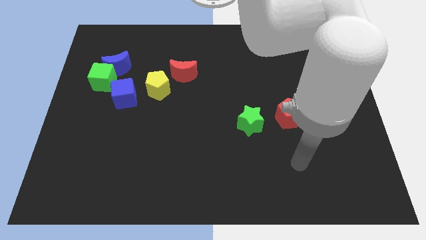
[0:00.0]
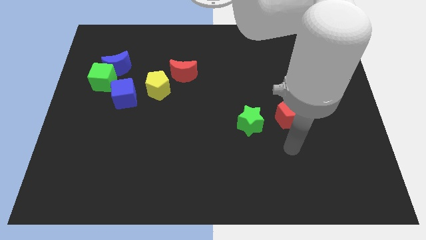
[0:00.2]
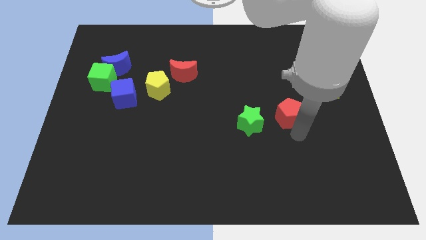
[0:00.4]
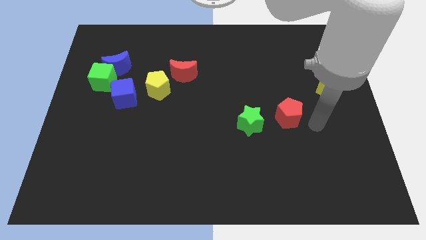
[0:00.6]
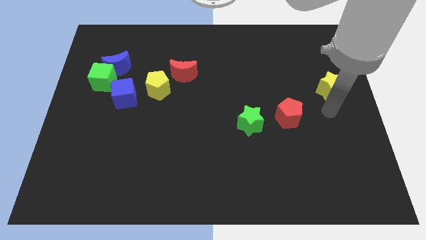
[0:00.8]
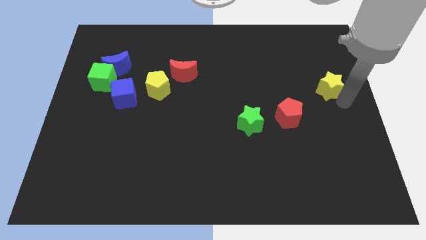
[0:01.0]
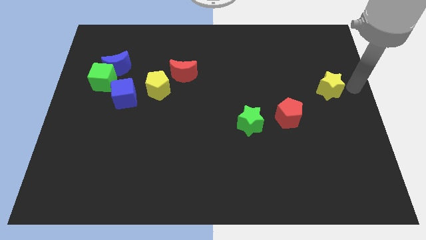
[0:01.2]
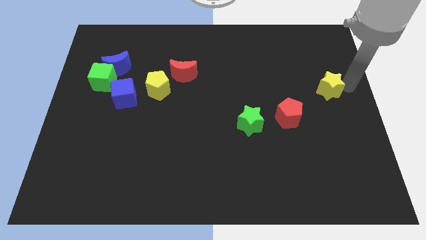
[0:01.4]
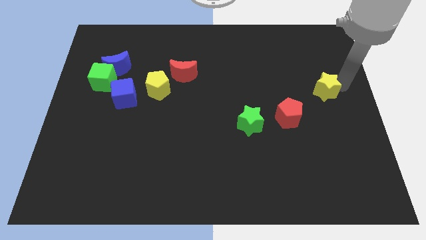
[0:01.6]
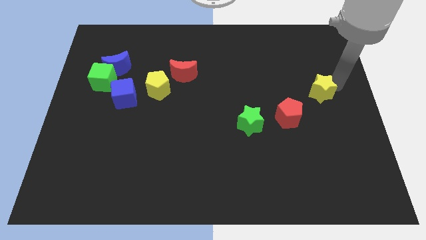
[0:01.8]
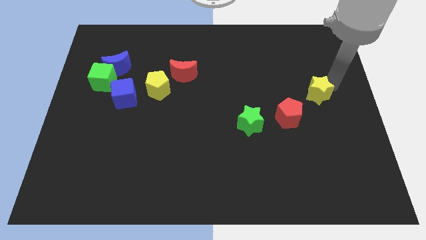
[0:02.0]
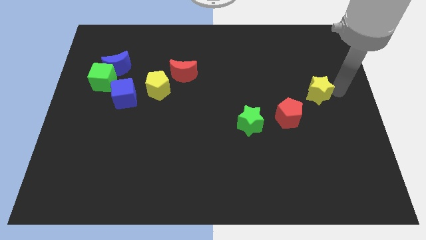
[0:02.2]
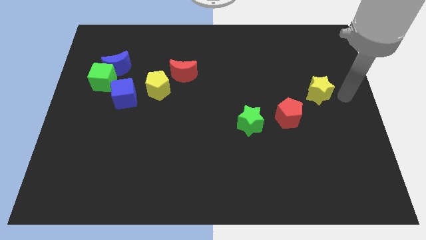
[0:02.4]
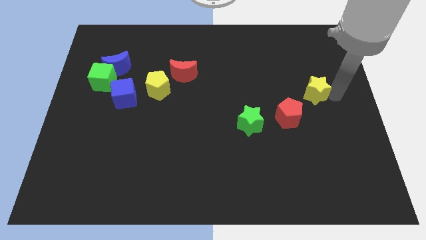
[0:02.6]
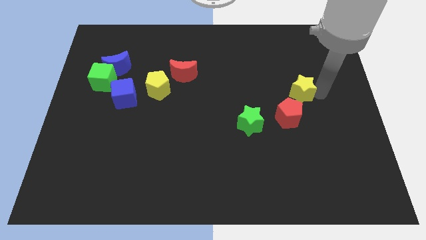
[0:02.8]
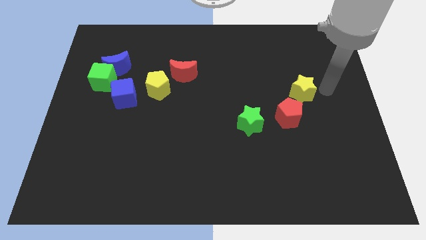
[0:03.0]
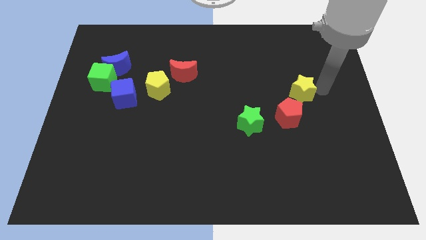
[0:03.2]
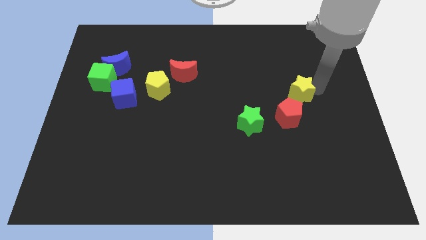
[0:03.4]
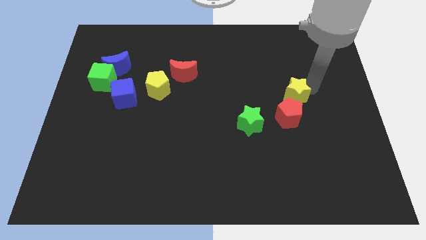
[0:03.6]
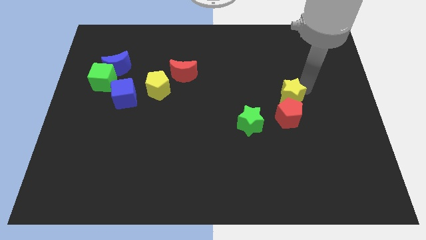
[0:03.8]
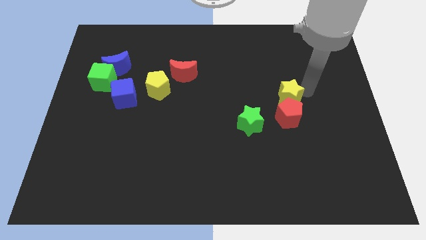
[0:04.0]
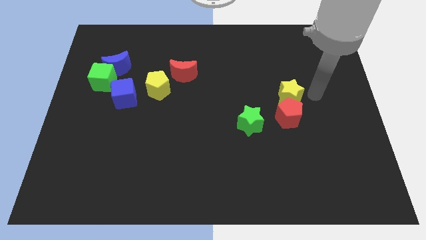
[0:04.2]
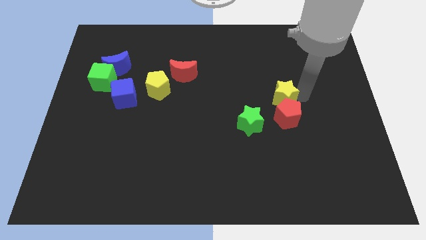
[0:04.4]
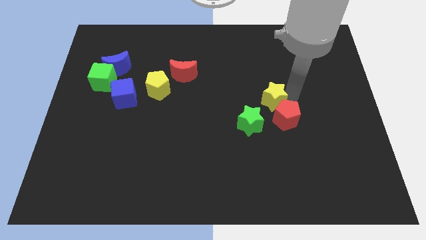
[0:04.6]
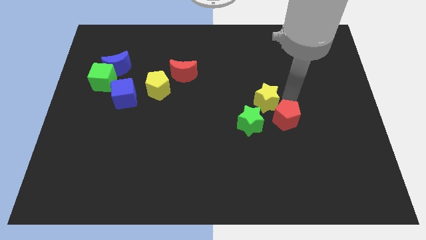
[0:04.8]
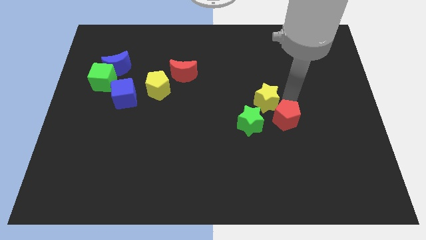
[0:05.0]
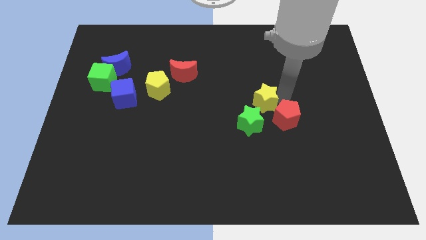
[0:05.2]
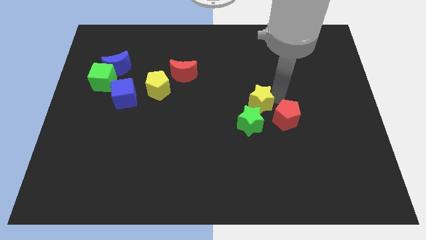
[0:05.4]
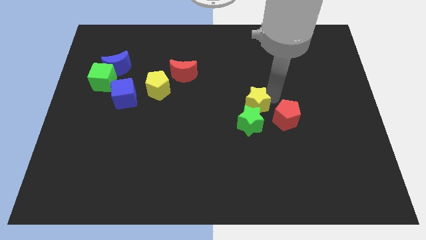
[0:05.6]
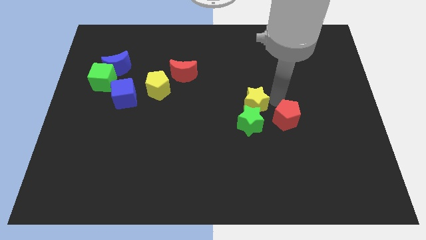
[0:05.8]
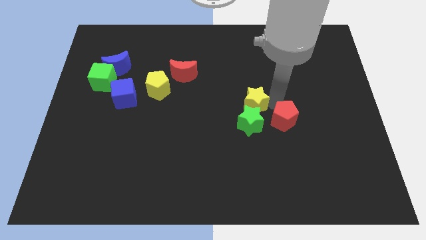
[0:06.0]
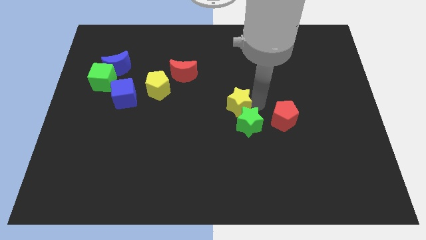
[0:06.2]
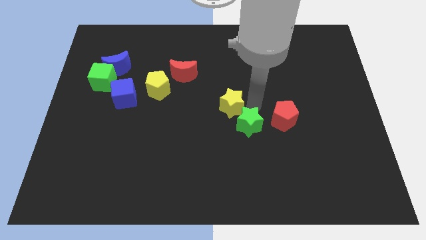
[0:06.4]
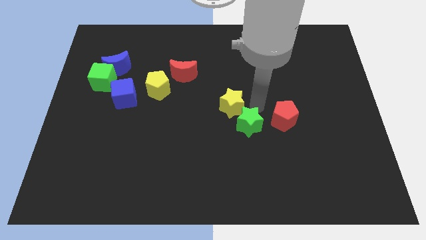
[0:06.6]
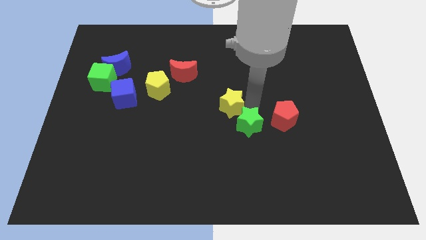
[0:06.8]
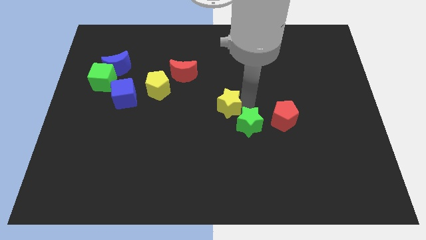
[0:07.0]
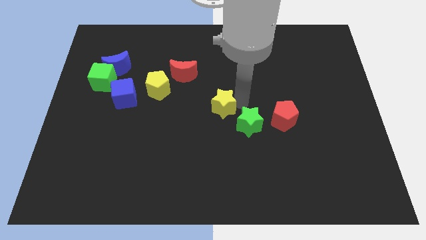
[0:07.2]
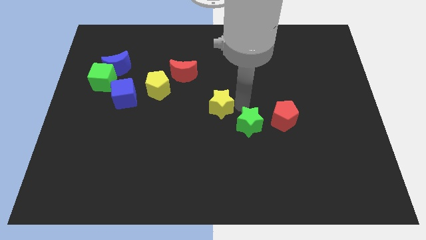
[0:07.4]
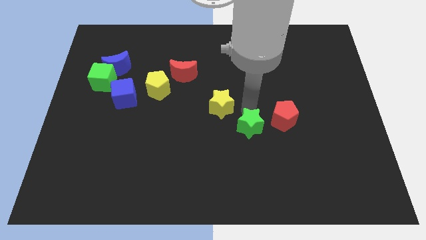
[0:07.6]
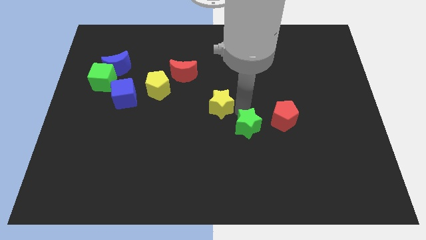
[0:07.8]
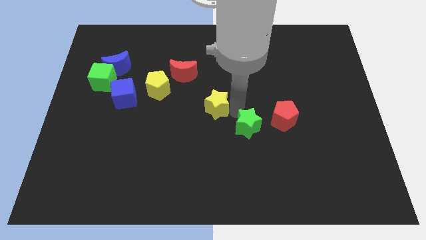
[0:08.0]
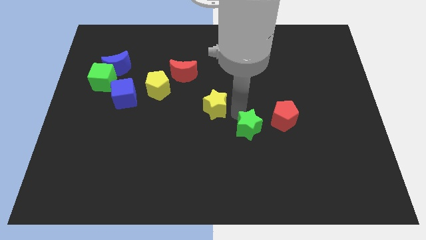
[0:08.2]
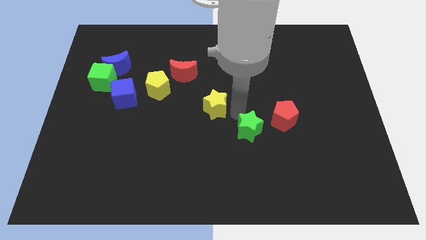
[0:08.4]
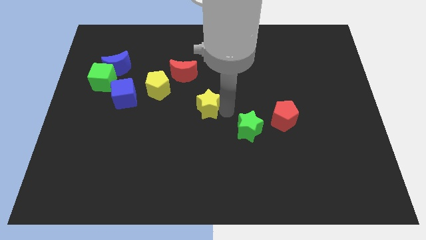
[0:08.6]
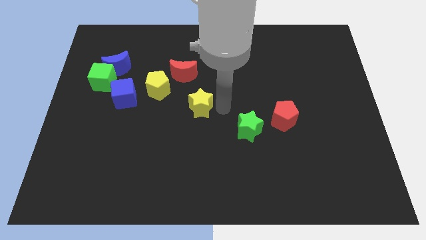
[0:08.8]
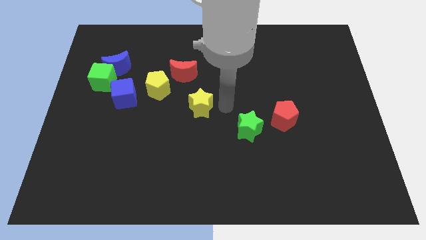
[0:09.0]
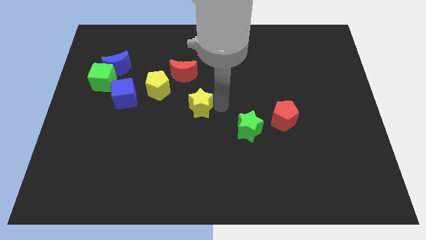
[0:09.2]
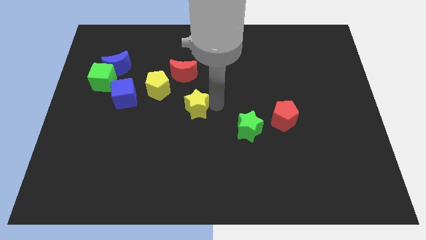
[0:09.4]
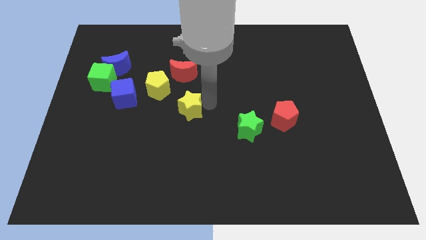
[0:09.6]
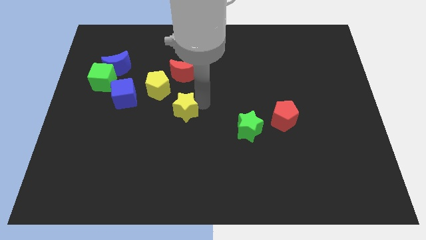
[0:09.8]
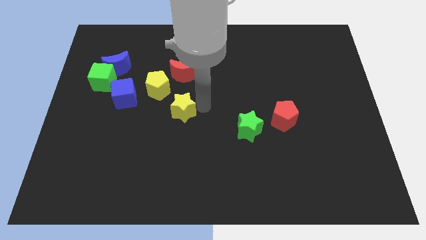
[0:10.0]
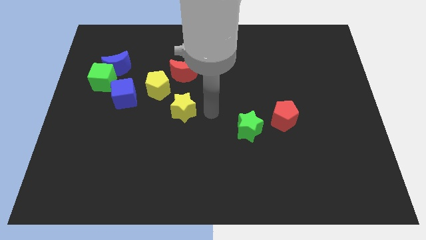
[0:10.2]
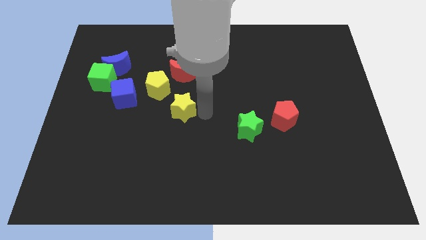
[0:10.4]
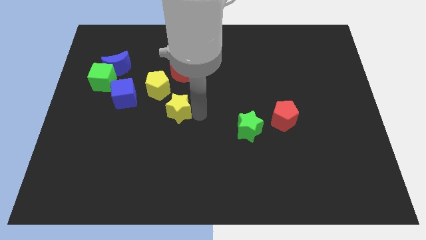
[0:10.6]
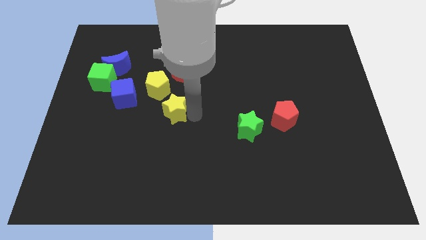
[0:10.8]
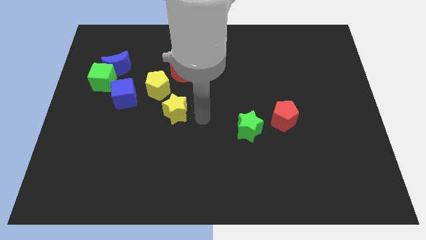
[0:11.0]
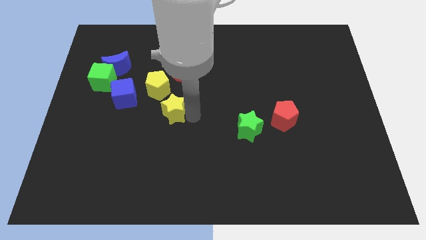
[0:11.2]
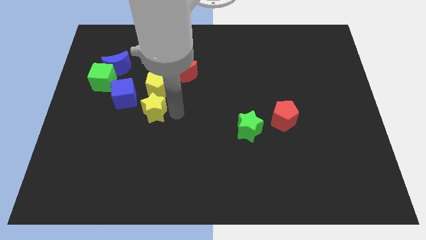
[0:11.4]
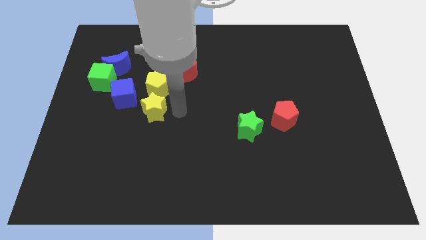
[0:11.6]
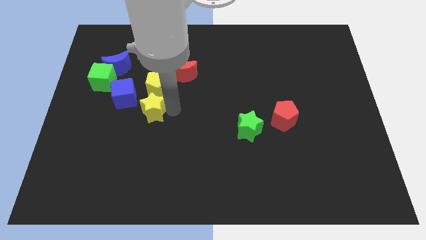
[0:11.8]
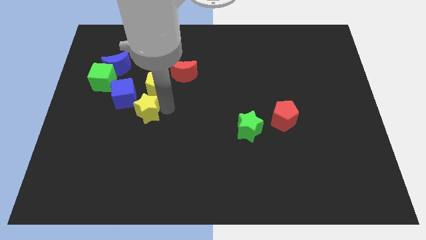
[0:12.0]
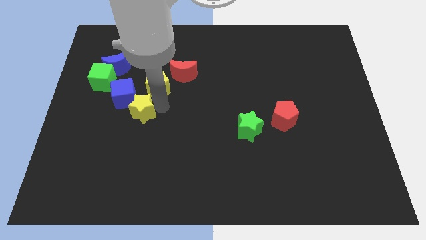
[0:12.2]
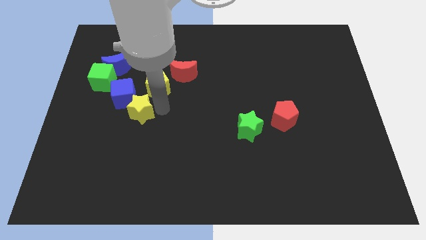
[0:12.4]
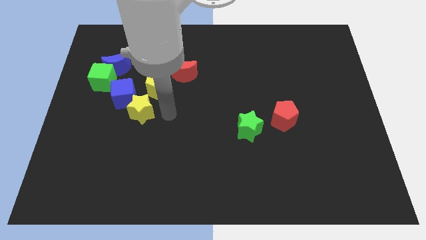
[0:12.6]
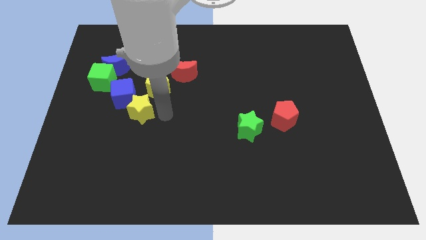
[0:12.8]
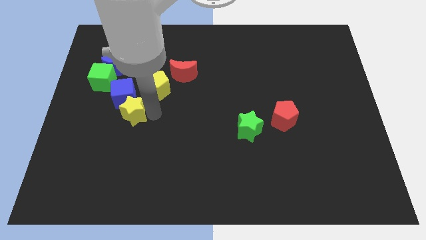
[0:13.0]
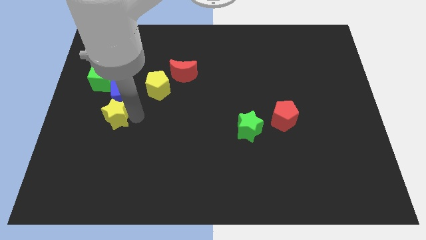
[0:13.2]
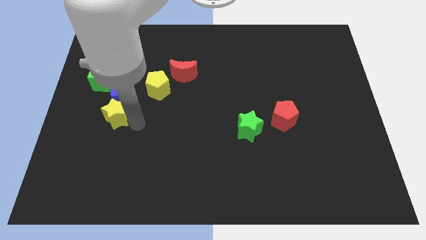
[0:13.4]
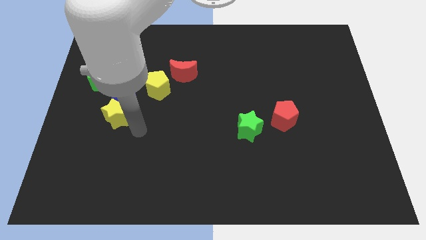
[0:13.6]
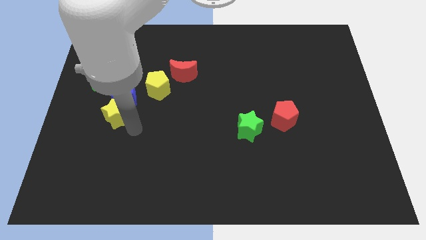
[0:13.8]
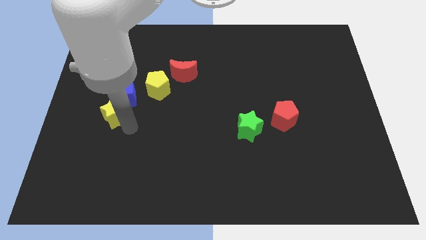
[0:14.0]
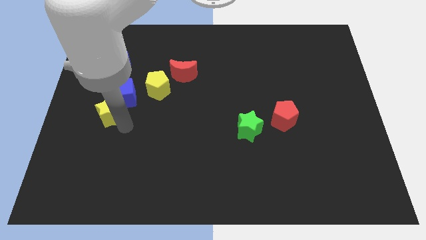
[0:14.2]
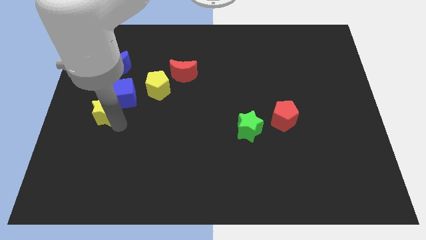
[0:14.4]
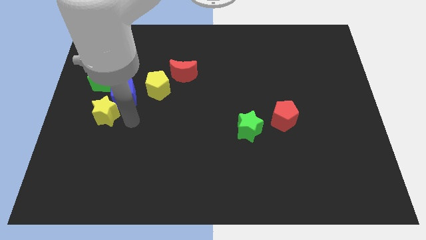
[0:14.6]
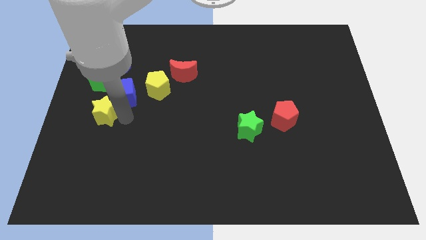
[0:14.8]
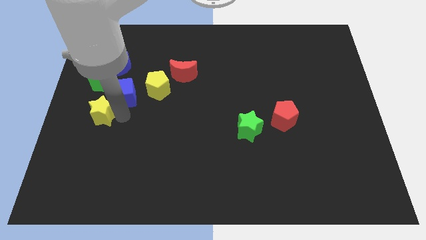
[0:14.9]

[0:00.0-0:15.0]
put the yellow star to the center left
